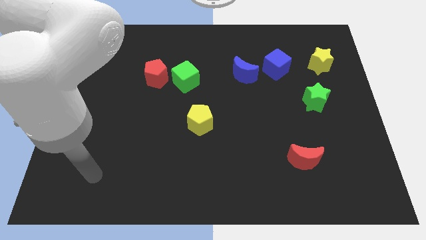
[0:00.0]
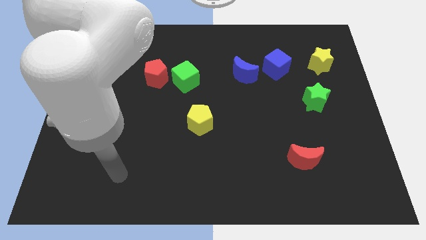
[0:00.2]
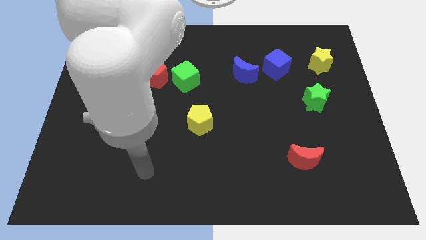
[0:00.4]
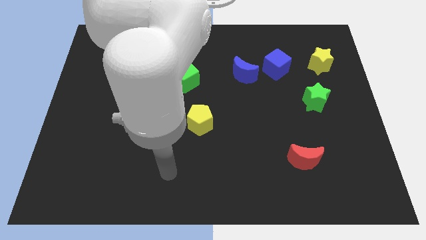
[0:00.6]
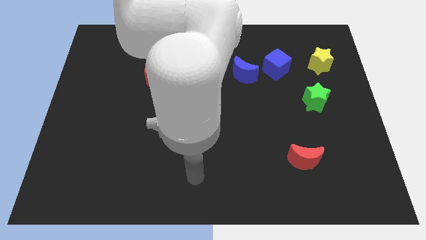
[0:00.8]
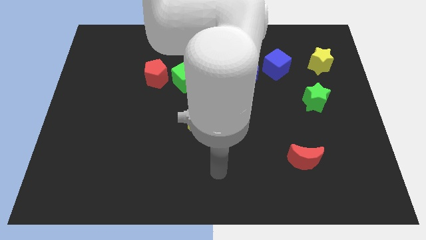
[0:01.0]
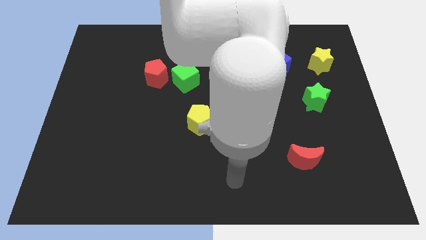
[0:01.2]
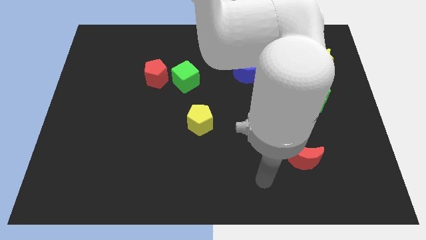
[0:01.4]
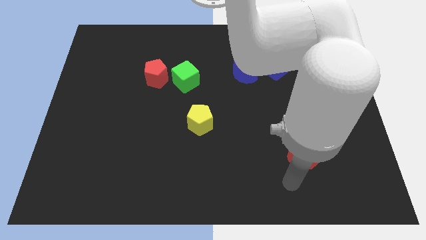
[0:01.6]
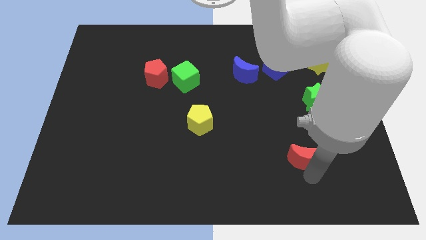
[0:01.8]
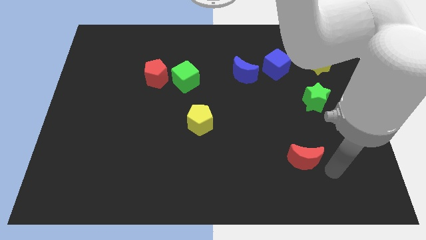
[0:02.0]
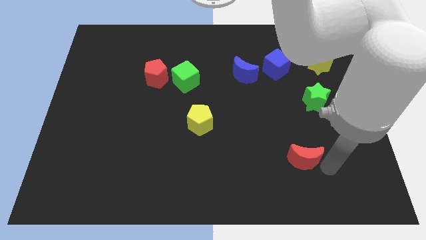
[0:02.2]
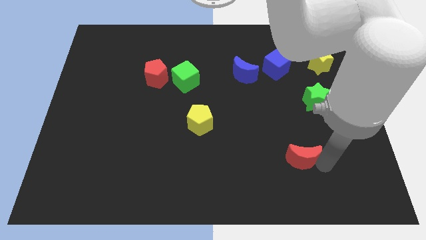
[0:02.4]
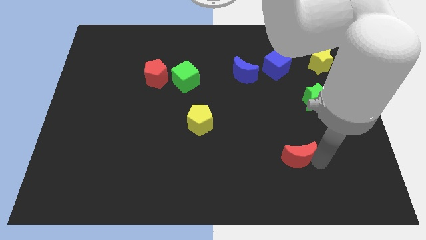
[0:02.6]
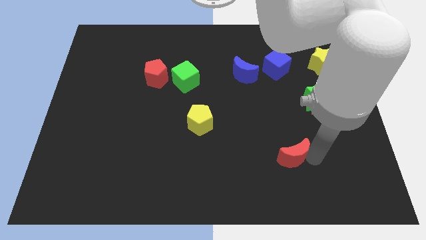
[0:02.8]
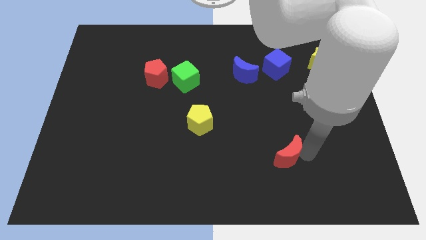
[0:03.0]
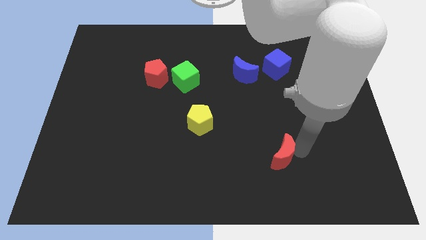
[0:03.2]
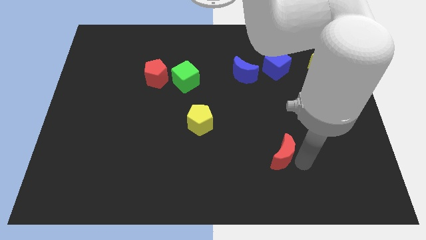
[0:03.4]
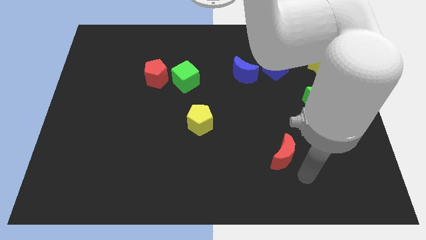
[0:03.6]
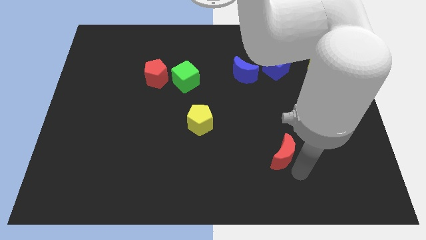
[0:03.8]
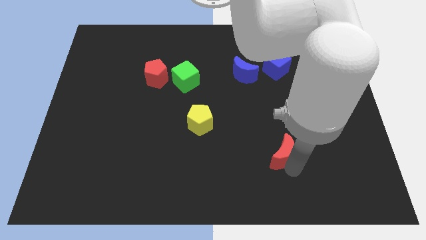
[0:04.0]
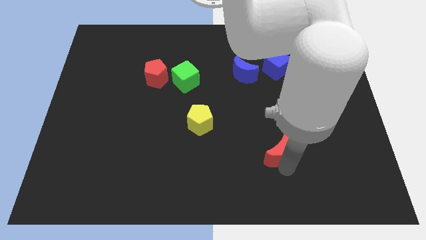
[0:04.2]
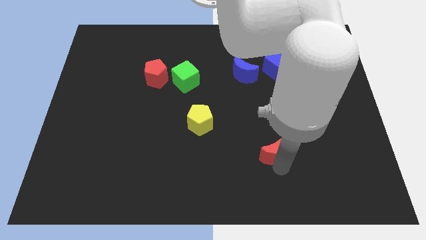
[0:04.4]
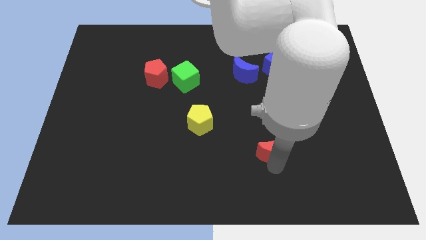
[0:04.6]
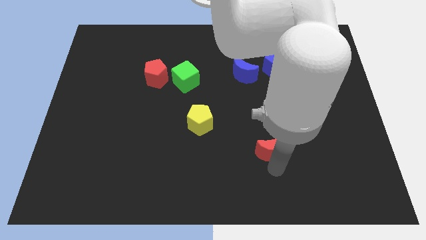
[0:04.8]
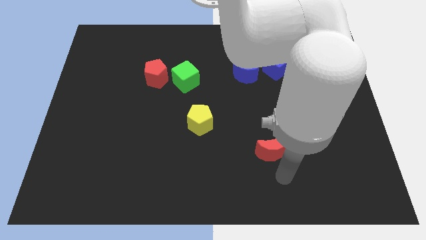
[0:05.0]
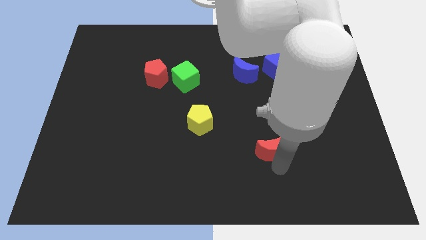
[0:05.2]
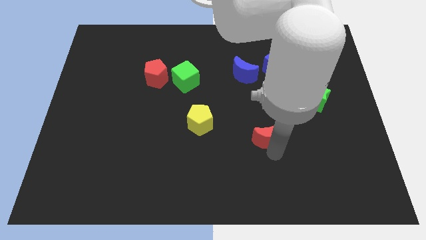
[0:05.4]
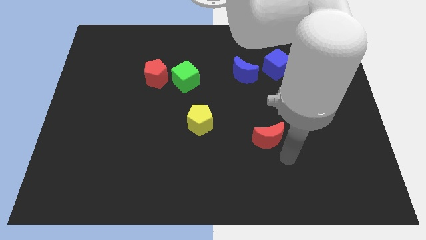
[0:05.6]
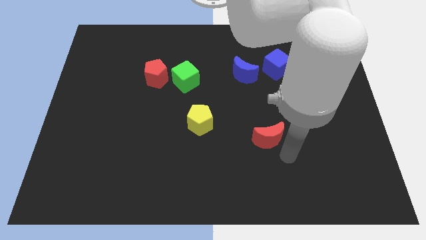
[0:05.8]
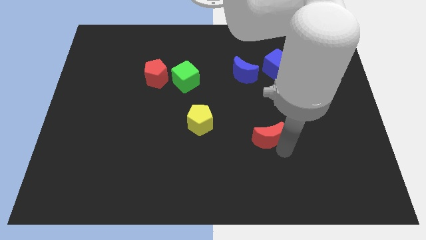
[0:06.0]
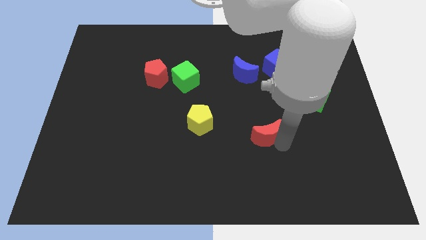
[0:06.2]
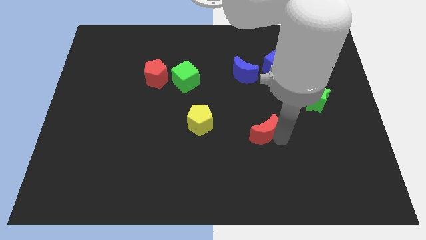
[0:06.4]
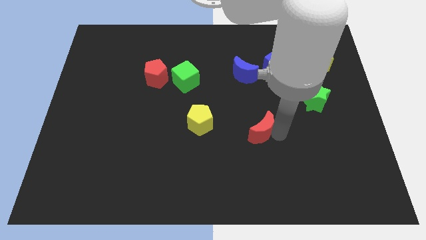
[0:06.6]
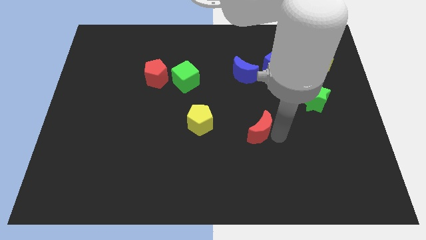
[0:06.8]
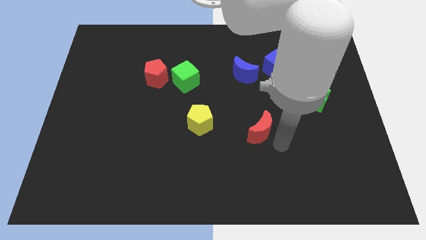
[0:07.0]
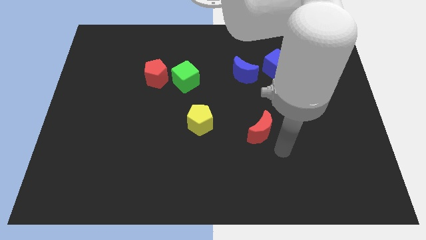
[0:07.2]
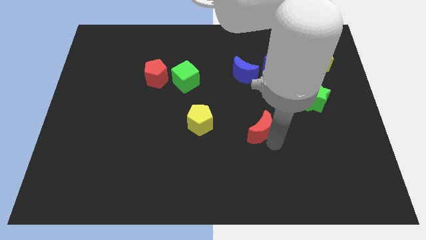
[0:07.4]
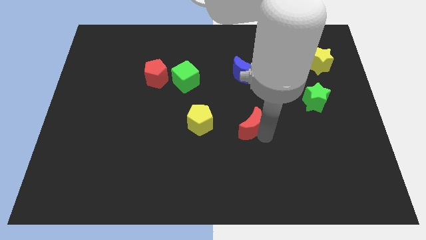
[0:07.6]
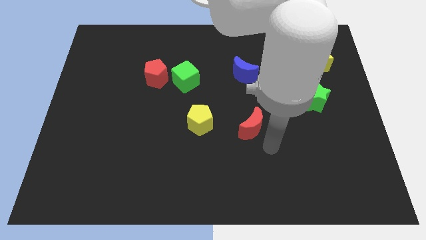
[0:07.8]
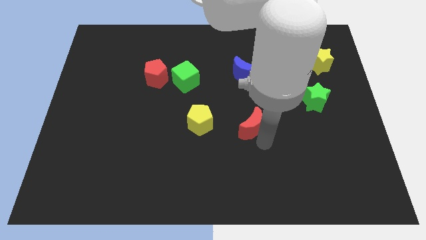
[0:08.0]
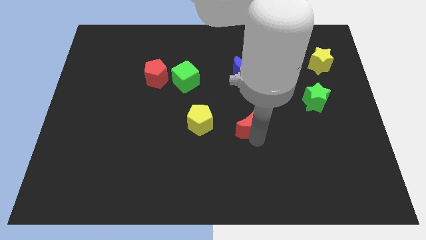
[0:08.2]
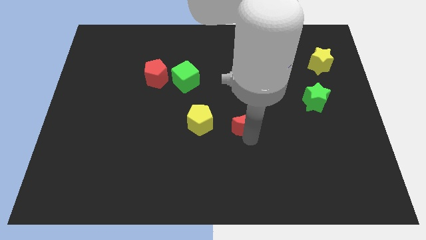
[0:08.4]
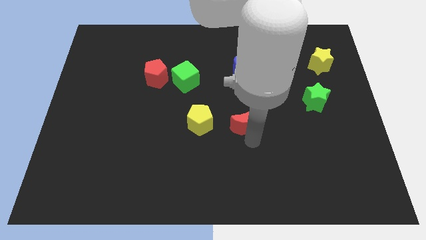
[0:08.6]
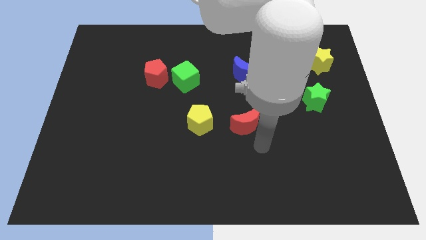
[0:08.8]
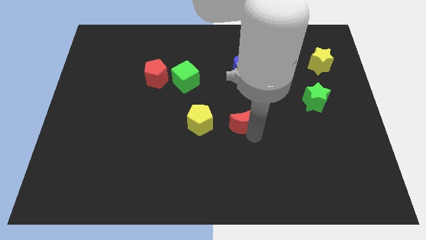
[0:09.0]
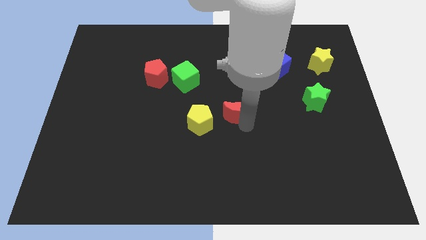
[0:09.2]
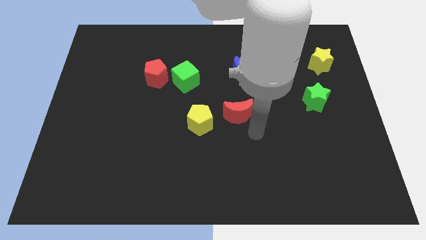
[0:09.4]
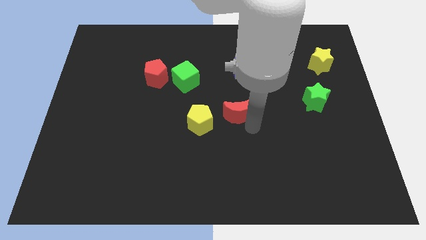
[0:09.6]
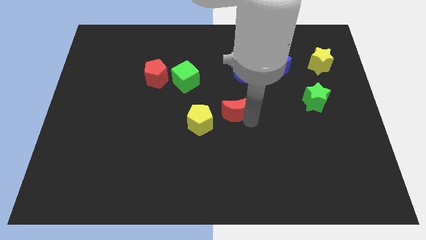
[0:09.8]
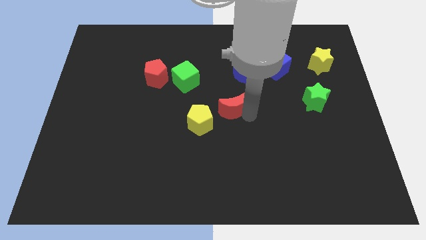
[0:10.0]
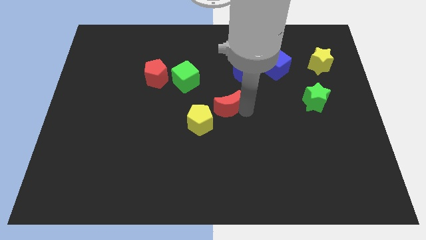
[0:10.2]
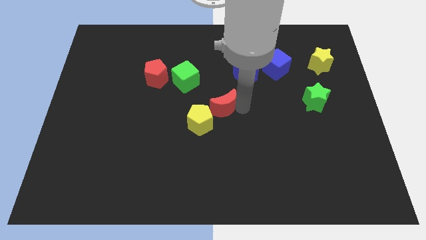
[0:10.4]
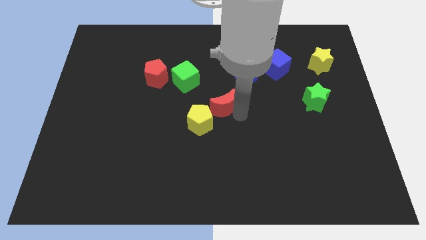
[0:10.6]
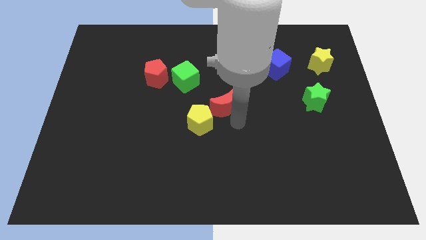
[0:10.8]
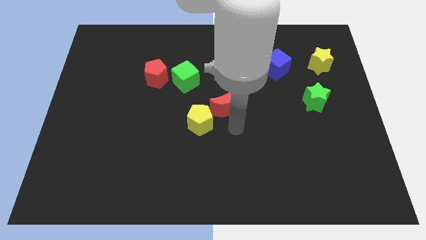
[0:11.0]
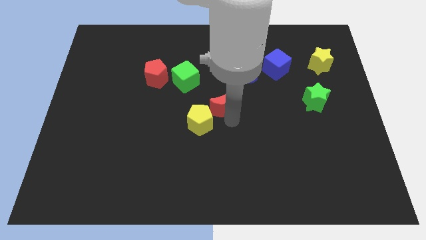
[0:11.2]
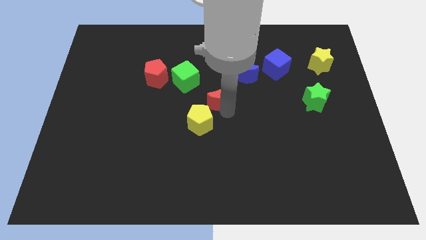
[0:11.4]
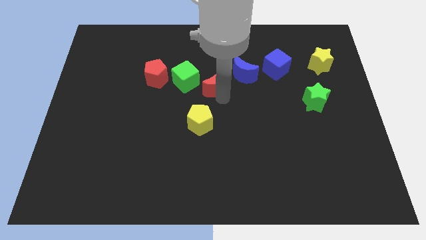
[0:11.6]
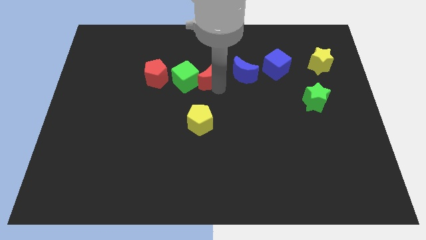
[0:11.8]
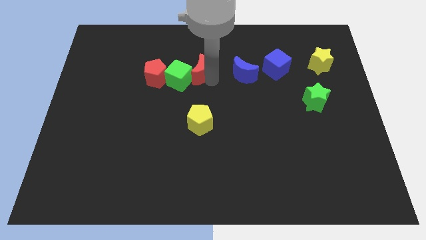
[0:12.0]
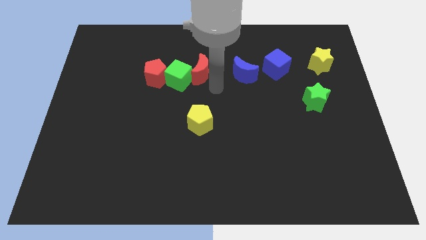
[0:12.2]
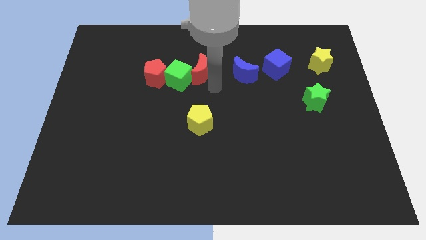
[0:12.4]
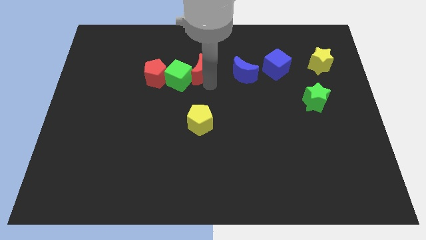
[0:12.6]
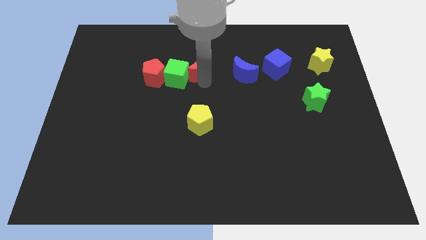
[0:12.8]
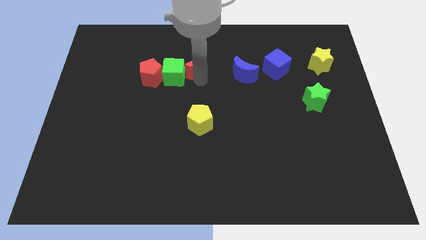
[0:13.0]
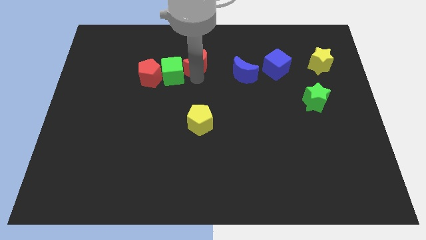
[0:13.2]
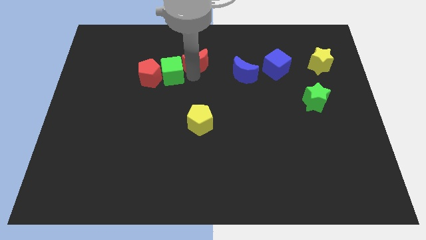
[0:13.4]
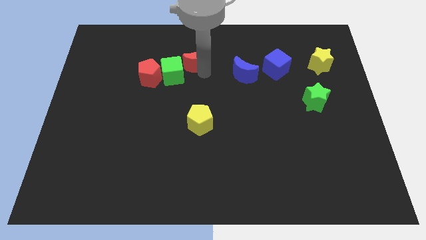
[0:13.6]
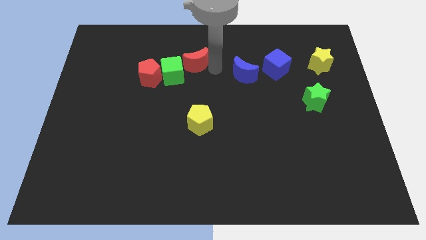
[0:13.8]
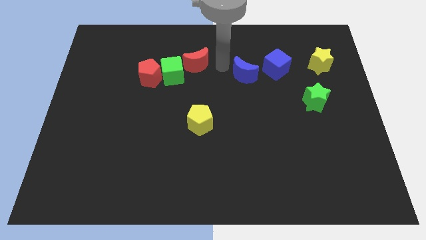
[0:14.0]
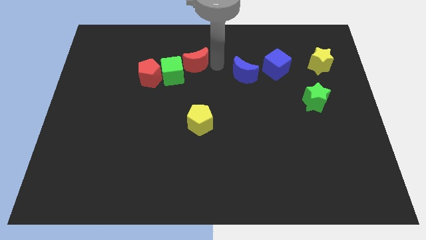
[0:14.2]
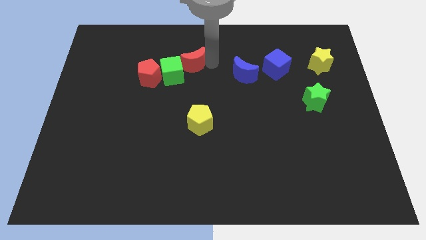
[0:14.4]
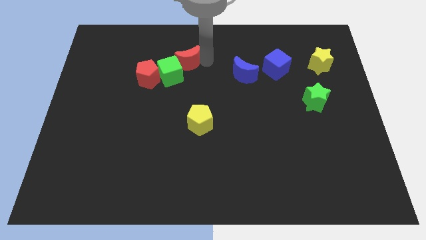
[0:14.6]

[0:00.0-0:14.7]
move the red moon diagonally up and to the right of the red pentagon
